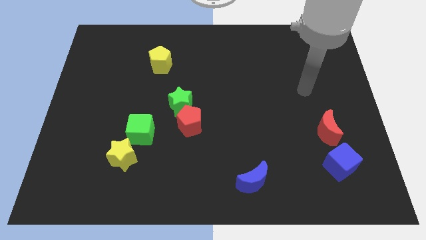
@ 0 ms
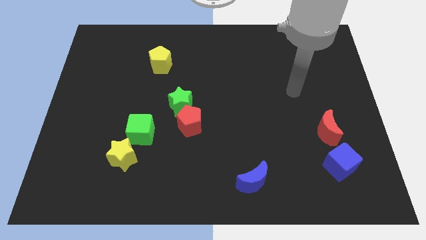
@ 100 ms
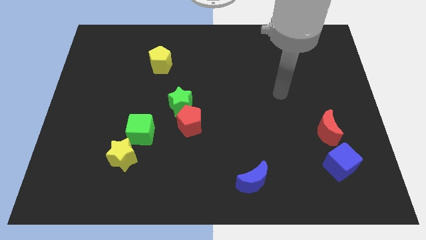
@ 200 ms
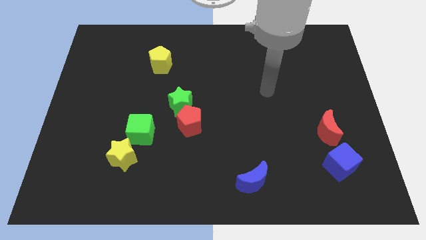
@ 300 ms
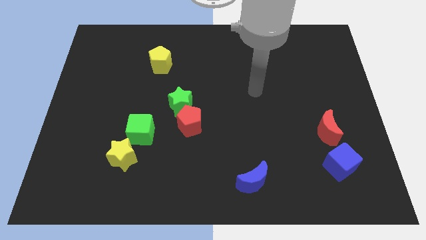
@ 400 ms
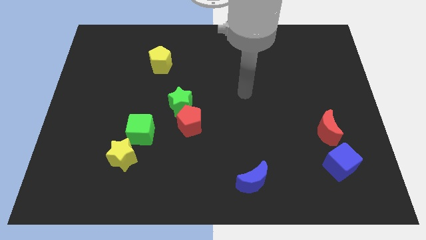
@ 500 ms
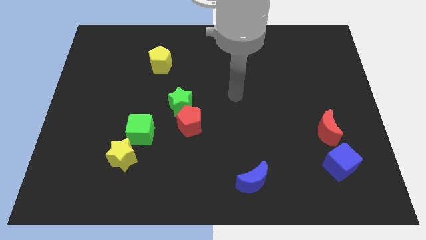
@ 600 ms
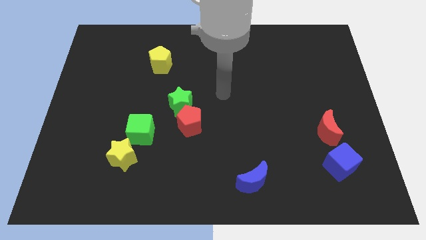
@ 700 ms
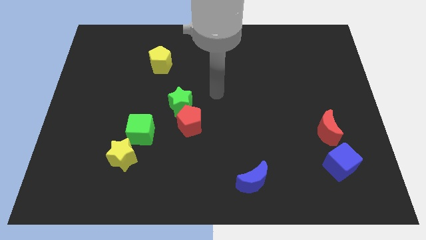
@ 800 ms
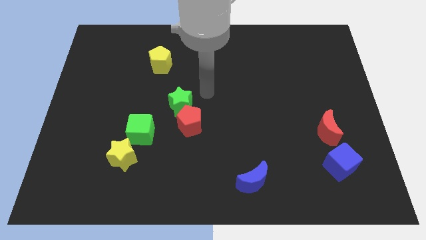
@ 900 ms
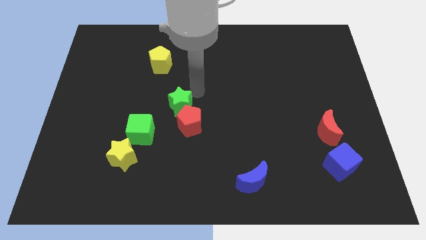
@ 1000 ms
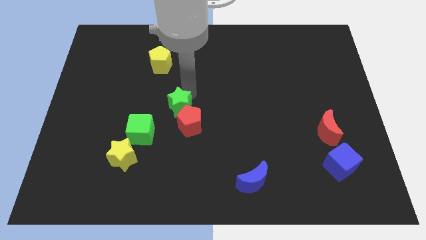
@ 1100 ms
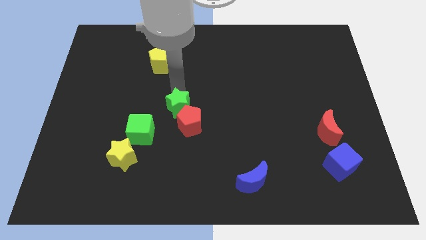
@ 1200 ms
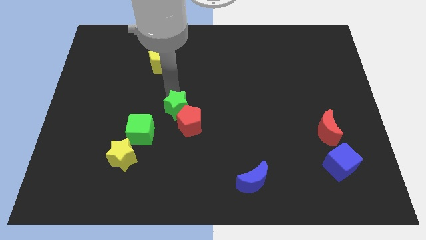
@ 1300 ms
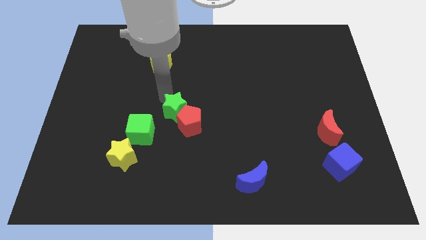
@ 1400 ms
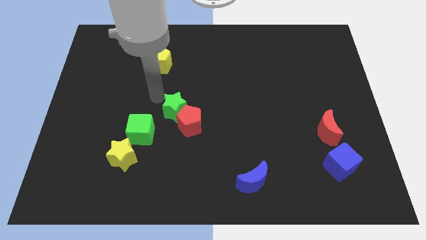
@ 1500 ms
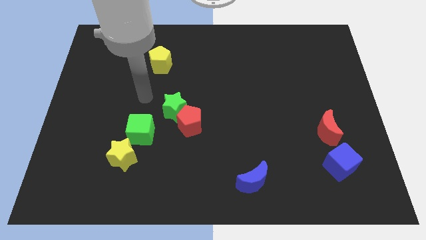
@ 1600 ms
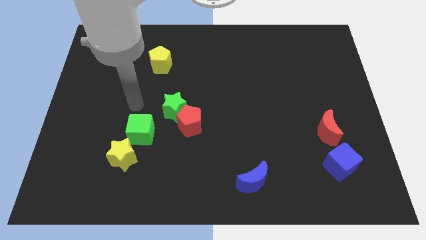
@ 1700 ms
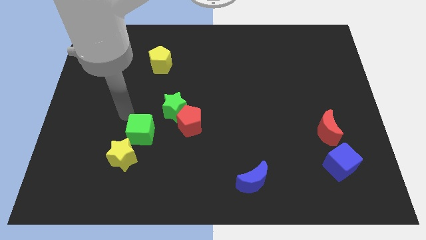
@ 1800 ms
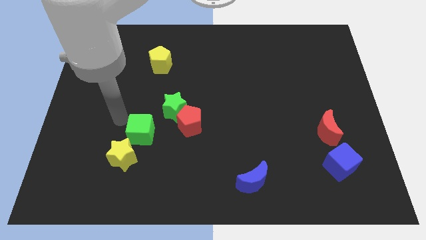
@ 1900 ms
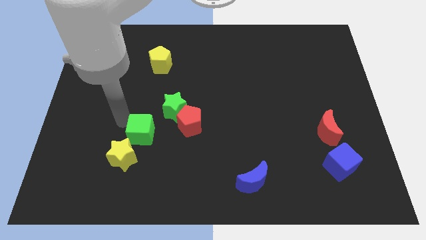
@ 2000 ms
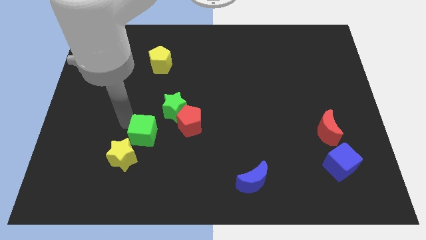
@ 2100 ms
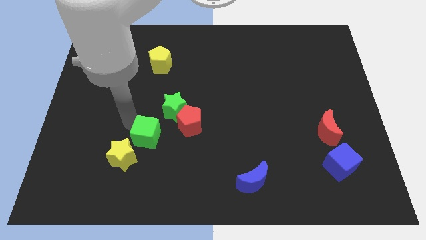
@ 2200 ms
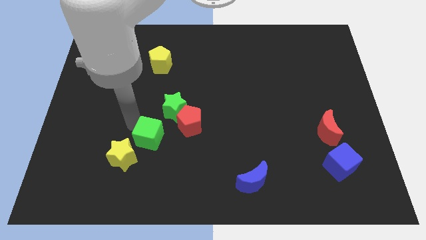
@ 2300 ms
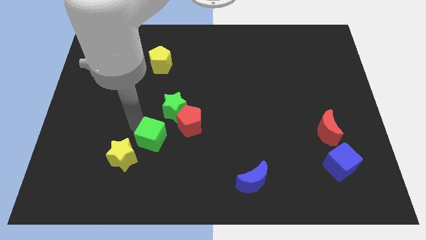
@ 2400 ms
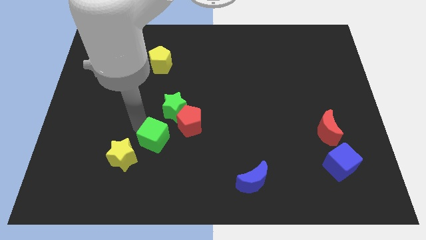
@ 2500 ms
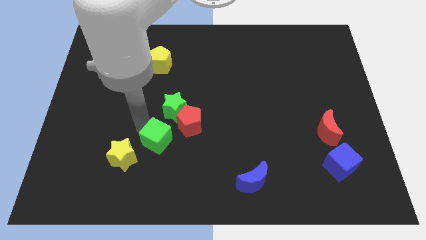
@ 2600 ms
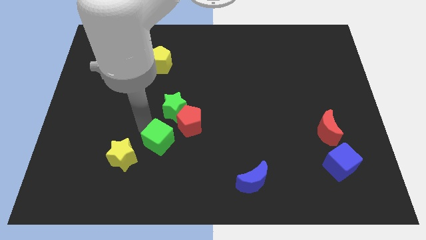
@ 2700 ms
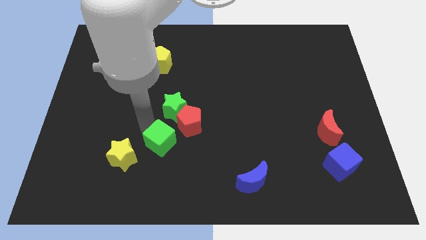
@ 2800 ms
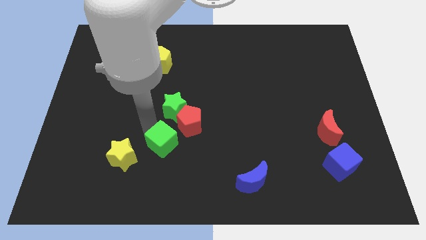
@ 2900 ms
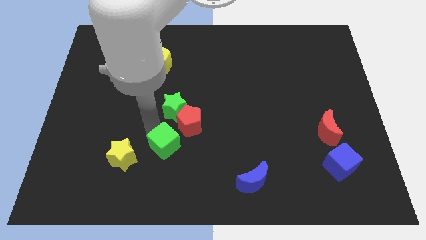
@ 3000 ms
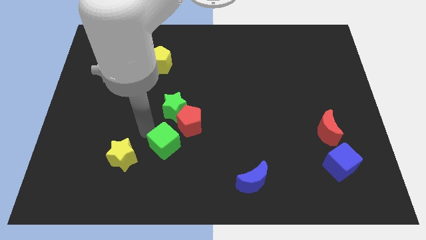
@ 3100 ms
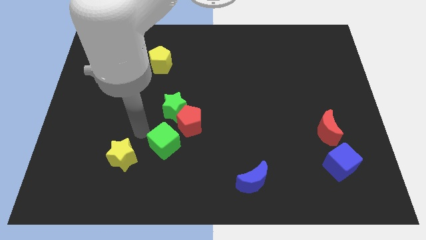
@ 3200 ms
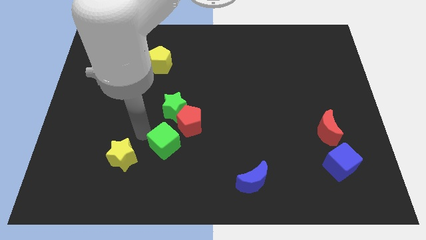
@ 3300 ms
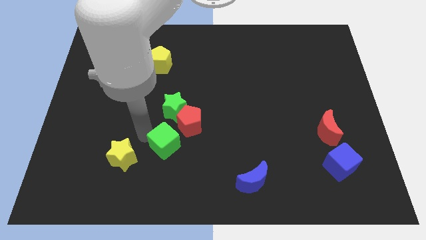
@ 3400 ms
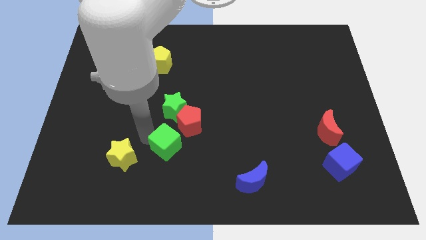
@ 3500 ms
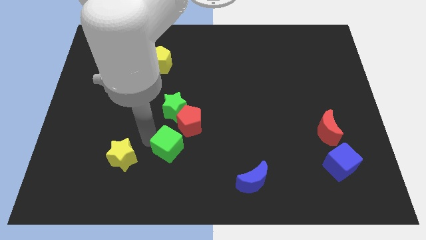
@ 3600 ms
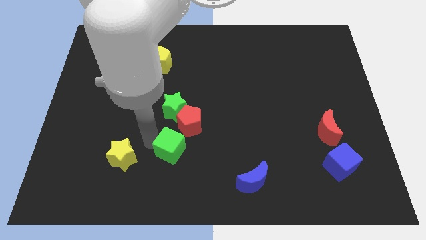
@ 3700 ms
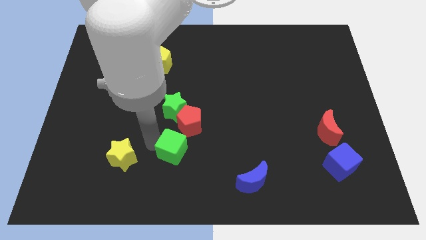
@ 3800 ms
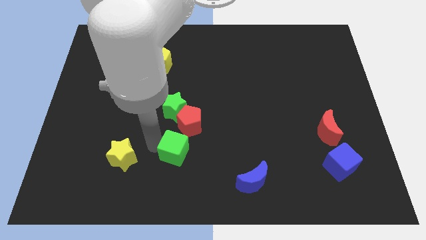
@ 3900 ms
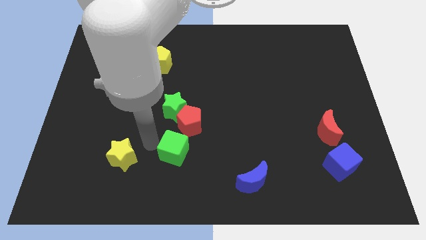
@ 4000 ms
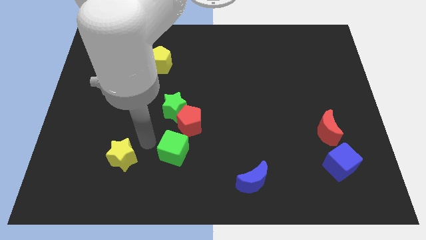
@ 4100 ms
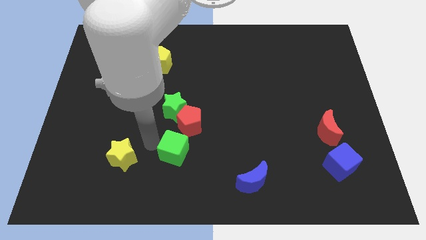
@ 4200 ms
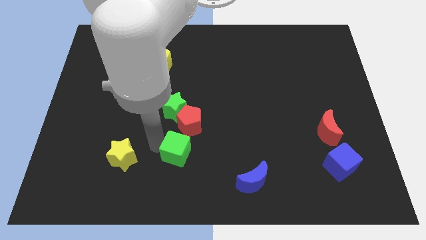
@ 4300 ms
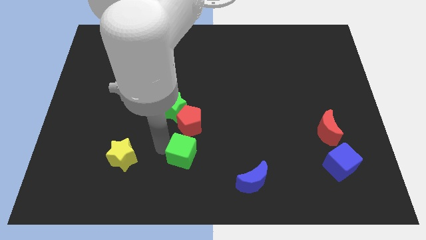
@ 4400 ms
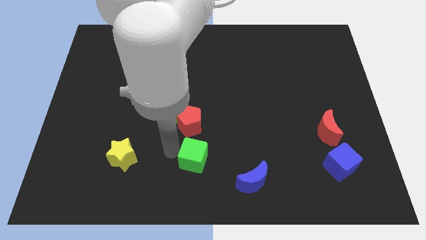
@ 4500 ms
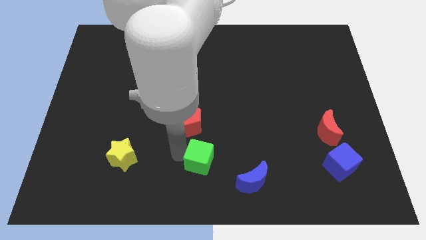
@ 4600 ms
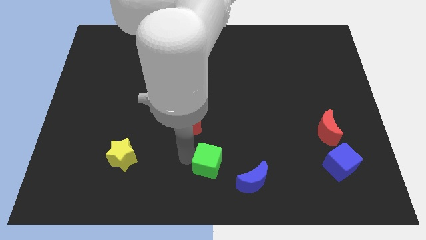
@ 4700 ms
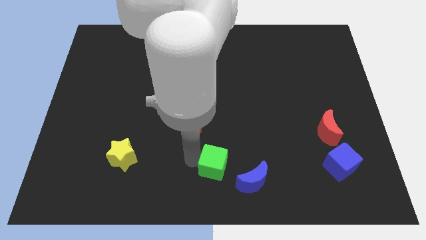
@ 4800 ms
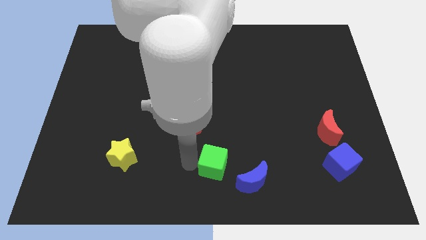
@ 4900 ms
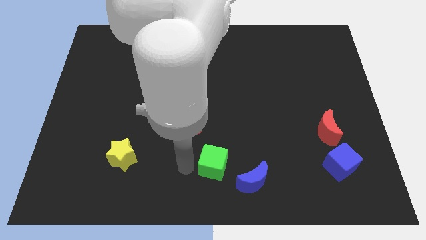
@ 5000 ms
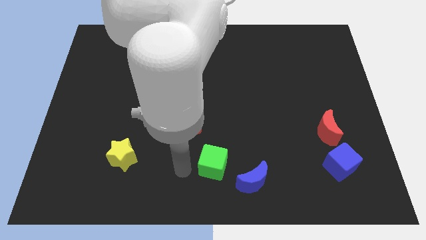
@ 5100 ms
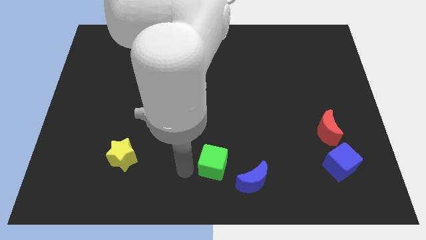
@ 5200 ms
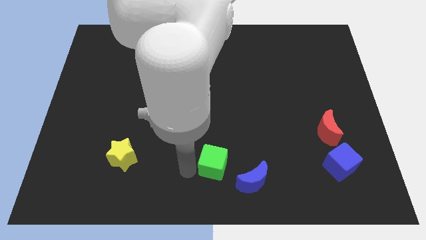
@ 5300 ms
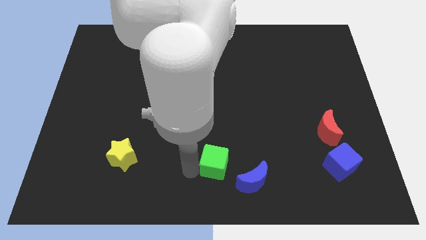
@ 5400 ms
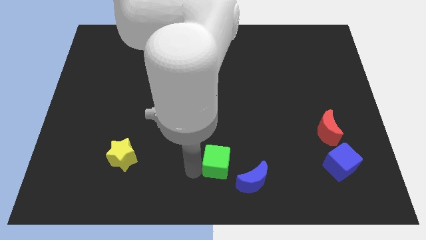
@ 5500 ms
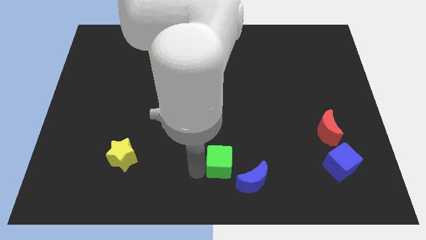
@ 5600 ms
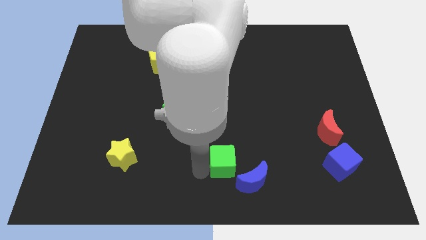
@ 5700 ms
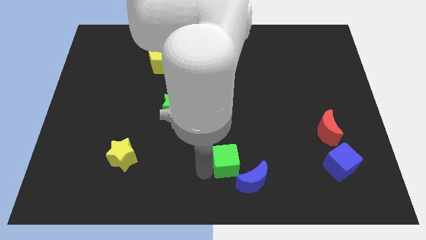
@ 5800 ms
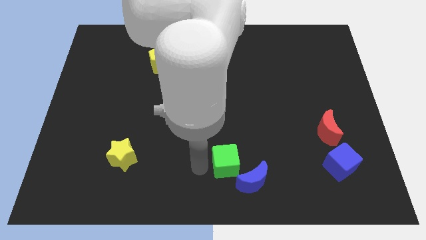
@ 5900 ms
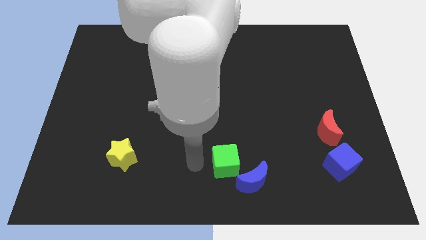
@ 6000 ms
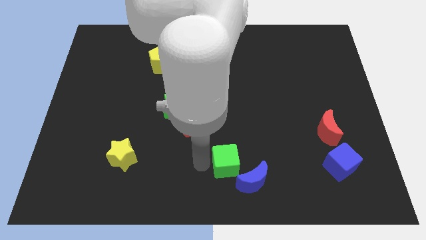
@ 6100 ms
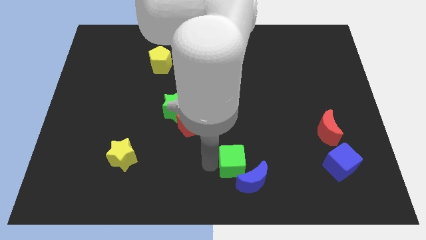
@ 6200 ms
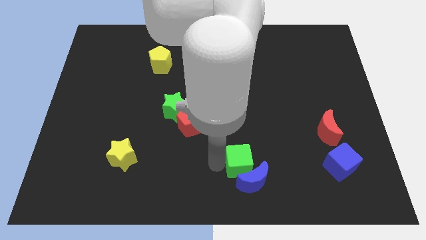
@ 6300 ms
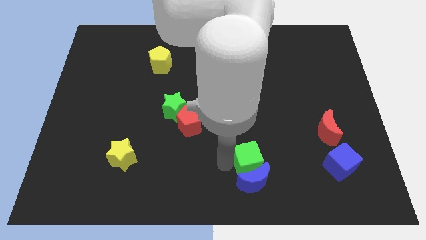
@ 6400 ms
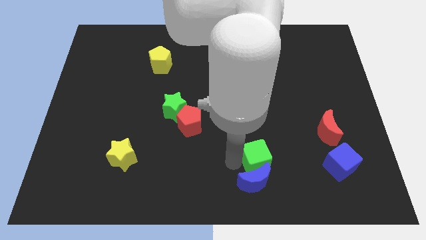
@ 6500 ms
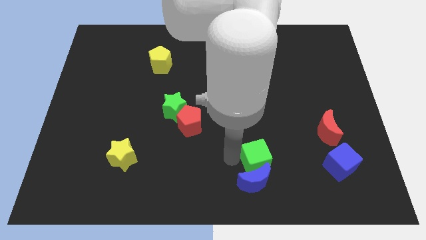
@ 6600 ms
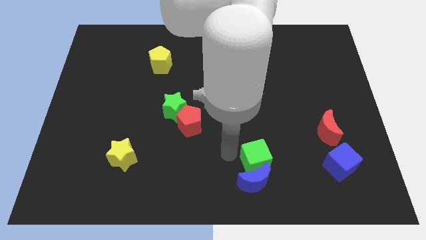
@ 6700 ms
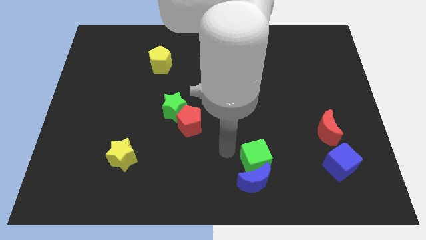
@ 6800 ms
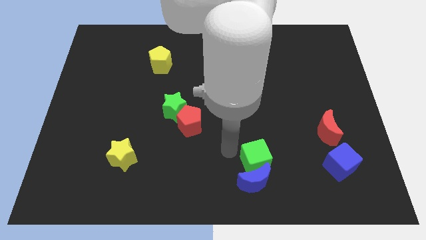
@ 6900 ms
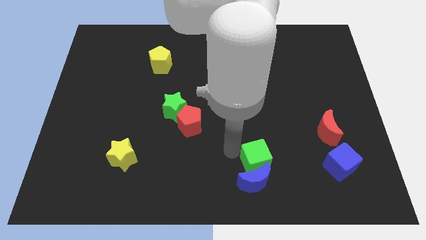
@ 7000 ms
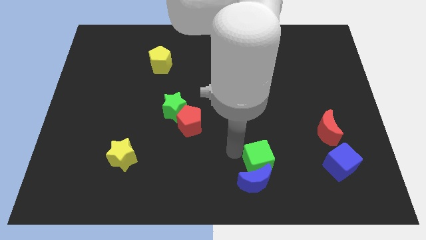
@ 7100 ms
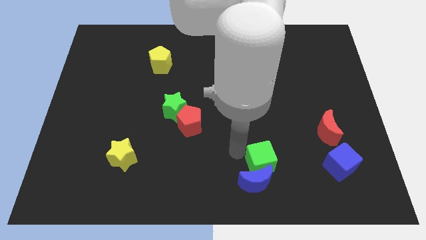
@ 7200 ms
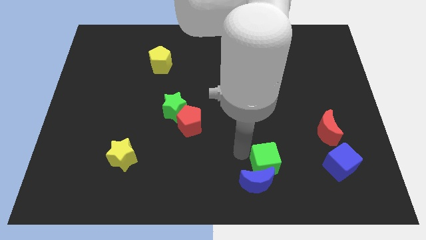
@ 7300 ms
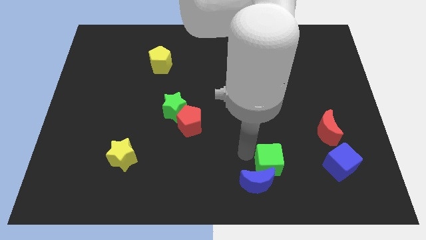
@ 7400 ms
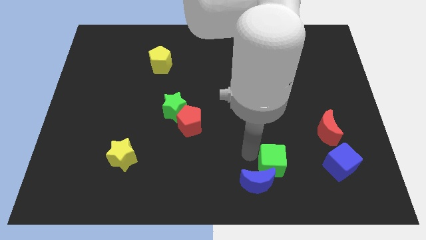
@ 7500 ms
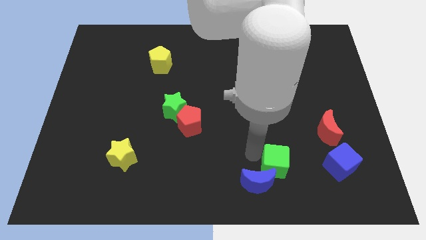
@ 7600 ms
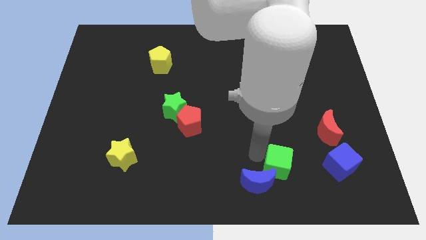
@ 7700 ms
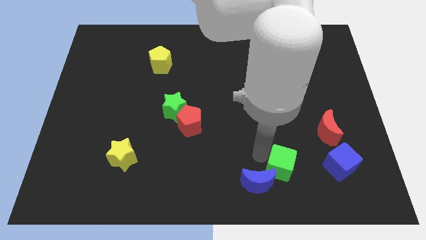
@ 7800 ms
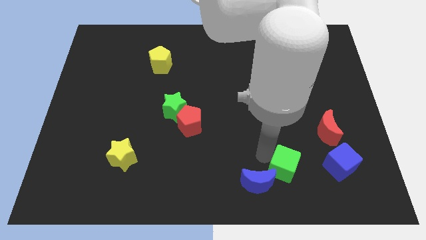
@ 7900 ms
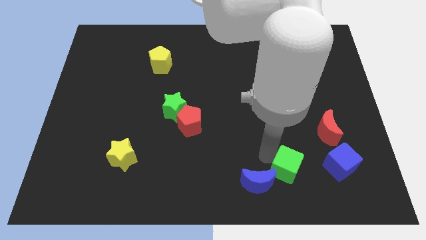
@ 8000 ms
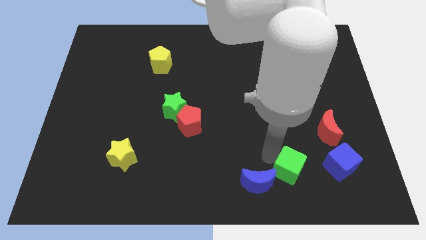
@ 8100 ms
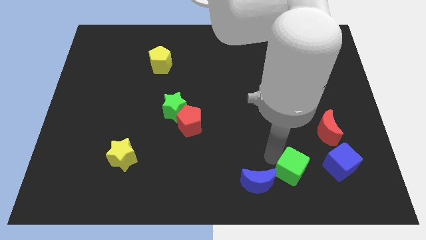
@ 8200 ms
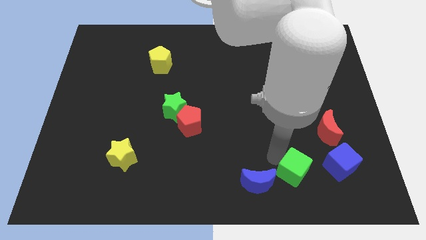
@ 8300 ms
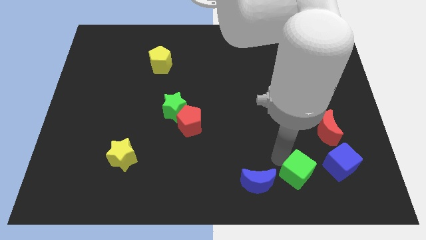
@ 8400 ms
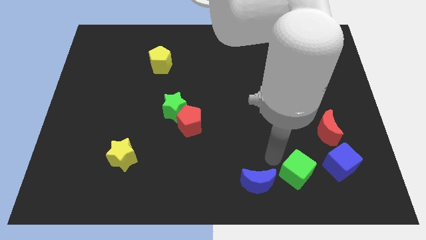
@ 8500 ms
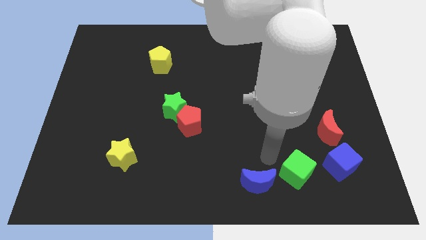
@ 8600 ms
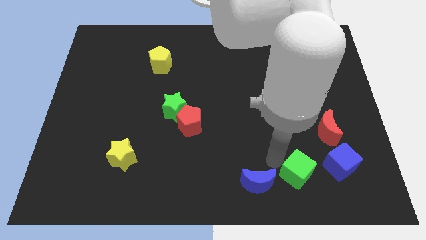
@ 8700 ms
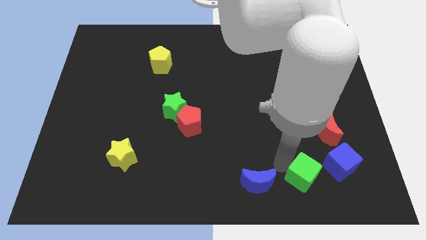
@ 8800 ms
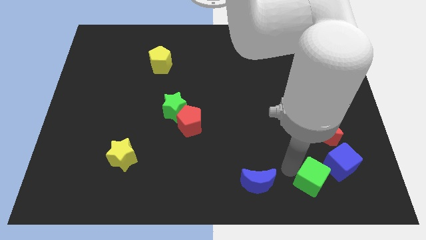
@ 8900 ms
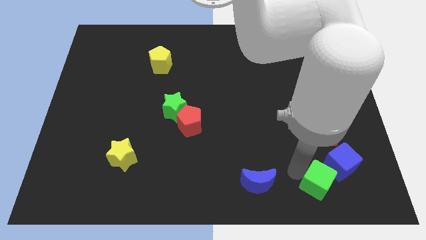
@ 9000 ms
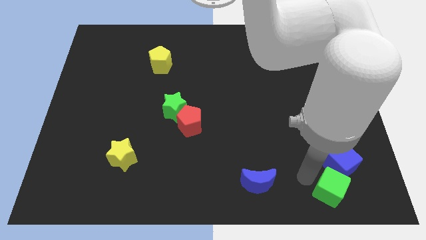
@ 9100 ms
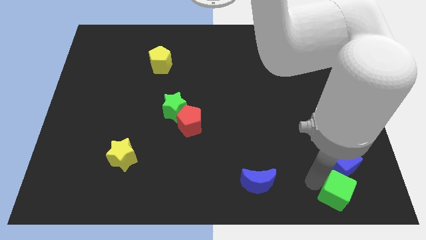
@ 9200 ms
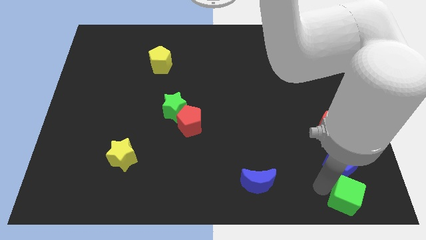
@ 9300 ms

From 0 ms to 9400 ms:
put the green cube to the bottom right corner
